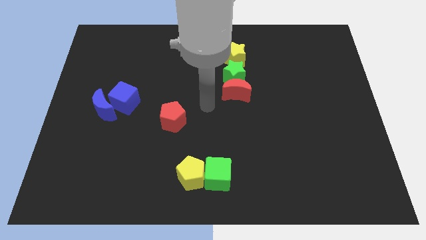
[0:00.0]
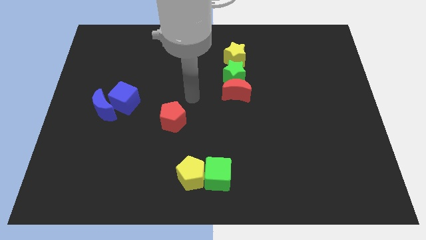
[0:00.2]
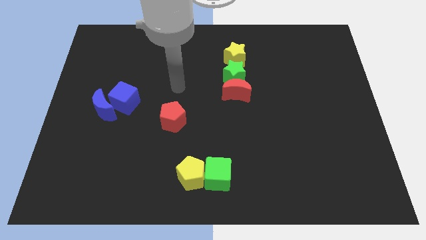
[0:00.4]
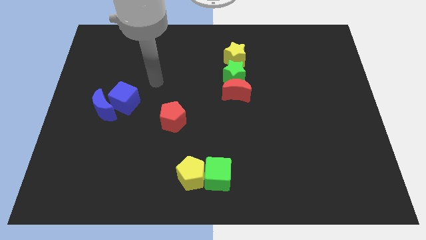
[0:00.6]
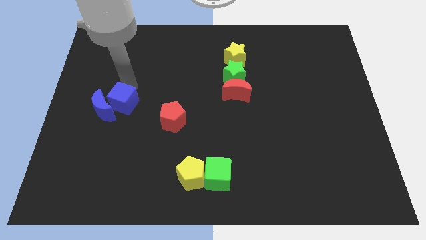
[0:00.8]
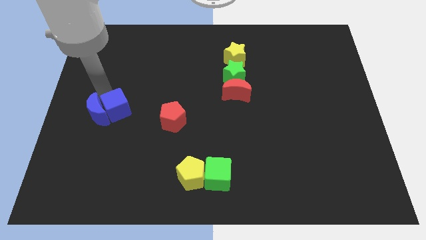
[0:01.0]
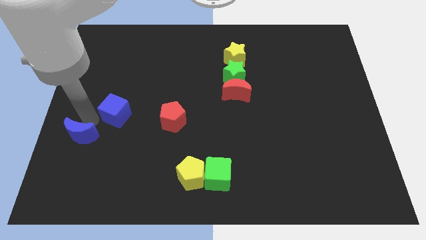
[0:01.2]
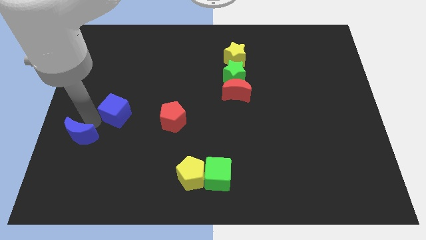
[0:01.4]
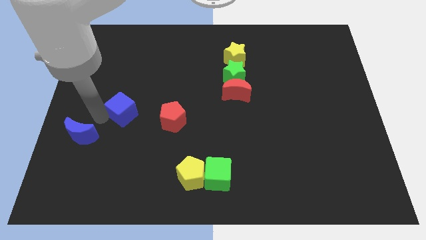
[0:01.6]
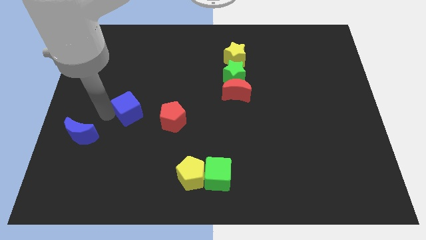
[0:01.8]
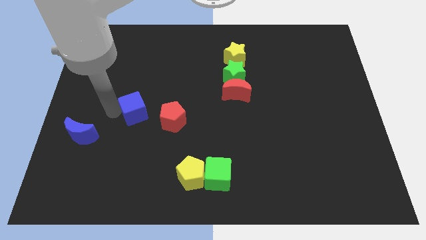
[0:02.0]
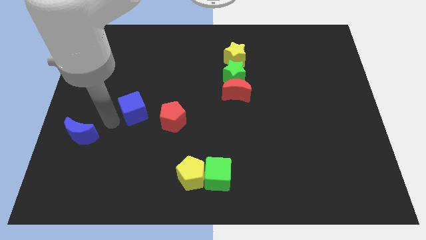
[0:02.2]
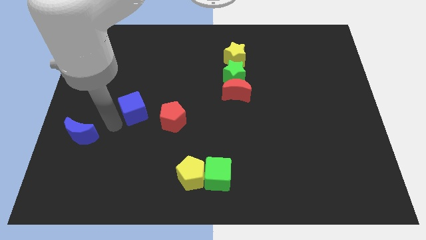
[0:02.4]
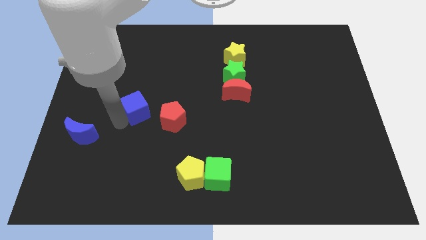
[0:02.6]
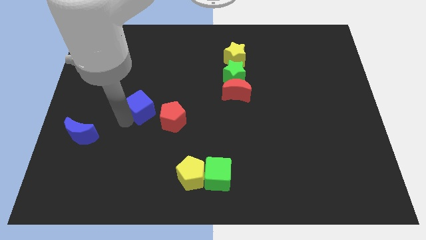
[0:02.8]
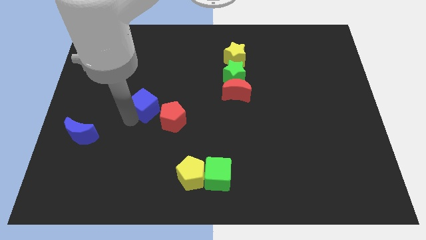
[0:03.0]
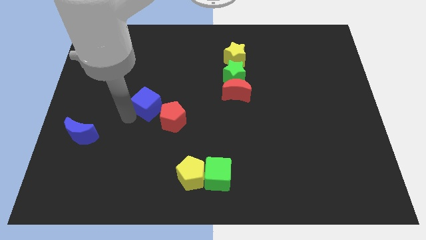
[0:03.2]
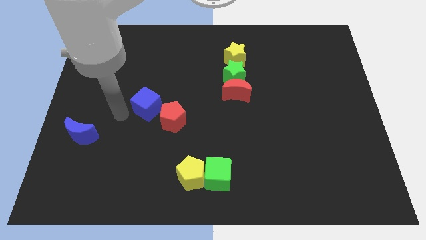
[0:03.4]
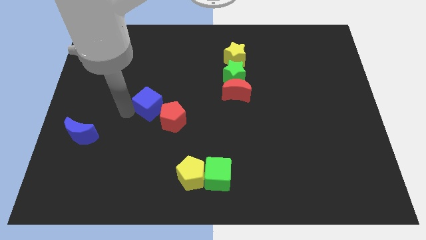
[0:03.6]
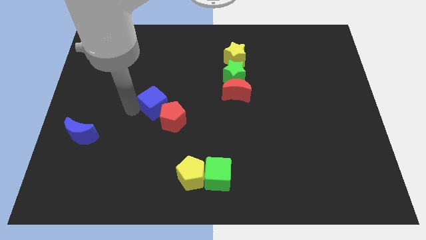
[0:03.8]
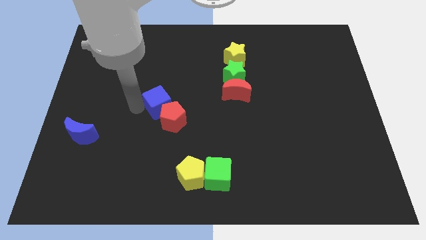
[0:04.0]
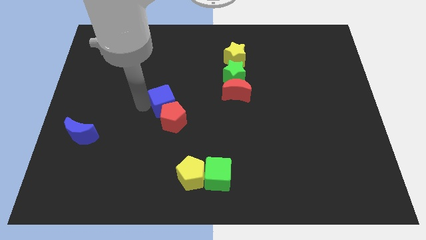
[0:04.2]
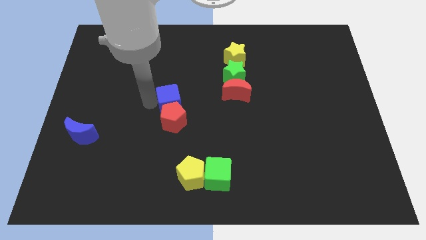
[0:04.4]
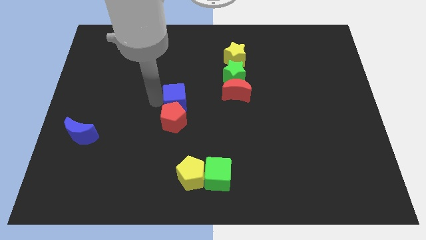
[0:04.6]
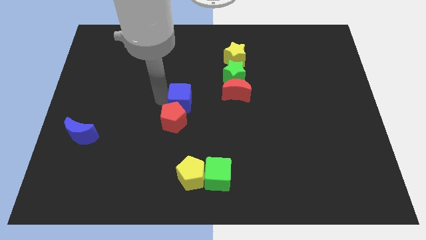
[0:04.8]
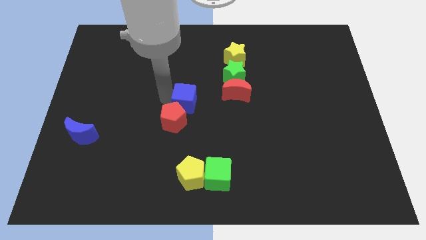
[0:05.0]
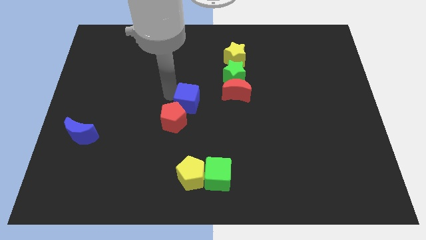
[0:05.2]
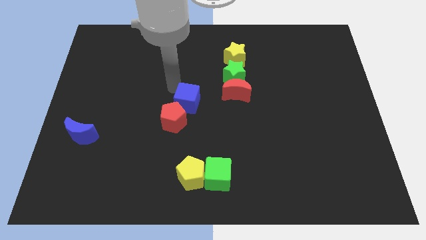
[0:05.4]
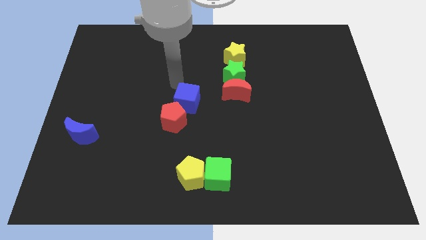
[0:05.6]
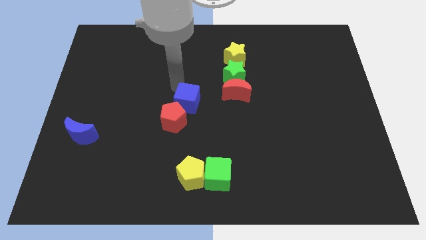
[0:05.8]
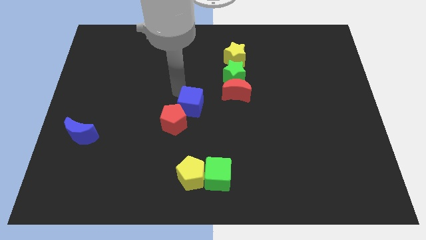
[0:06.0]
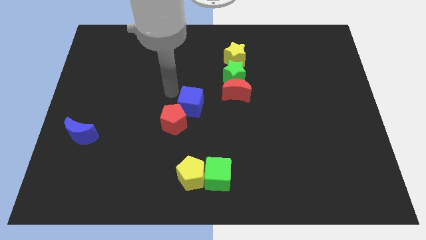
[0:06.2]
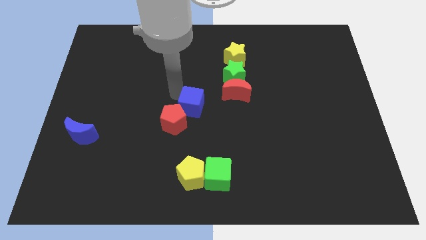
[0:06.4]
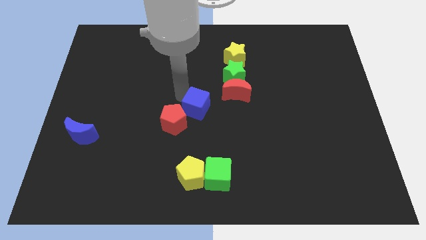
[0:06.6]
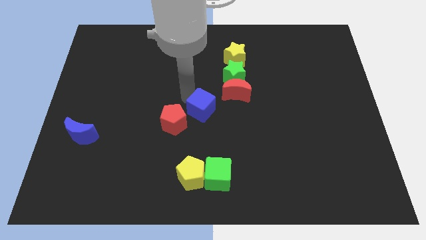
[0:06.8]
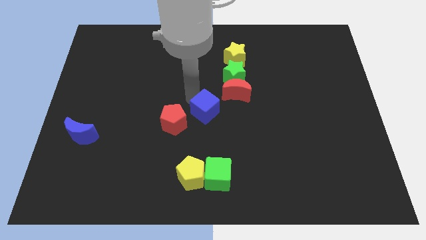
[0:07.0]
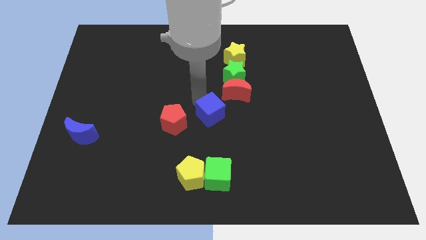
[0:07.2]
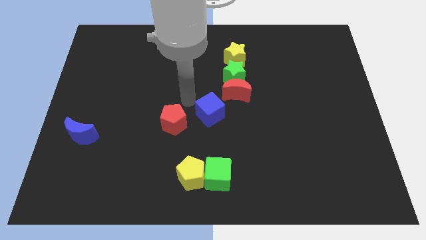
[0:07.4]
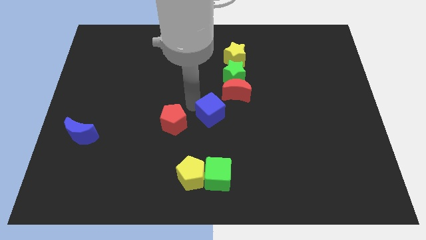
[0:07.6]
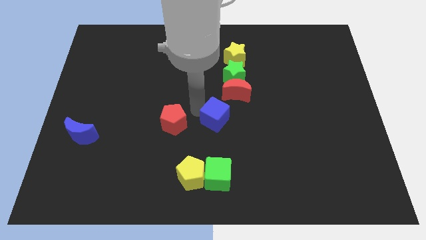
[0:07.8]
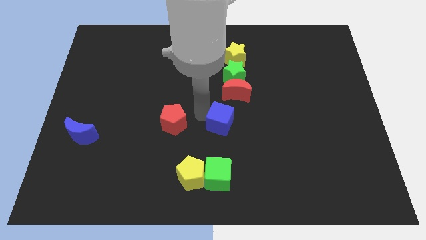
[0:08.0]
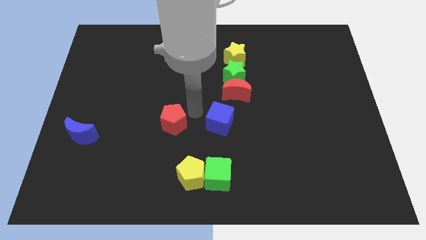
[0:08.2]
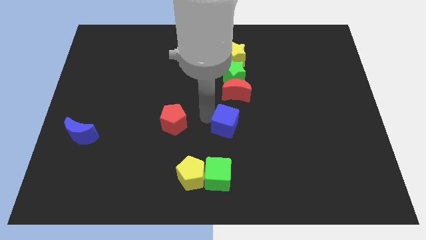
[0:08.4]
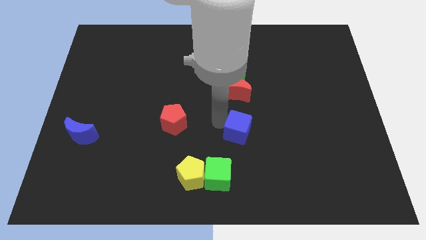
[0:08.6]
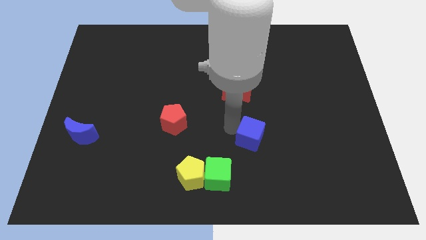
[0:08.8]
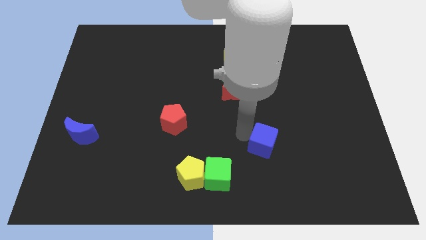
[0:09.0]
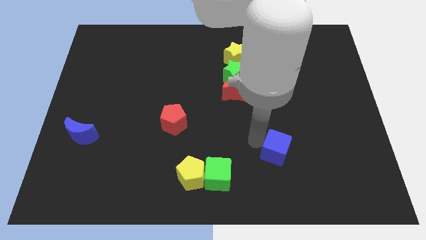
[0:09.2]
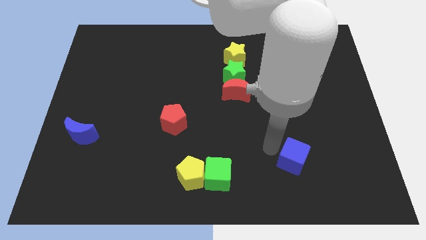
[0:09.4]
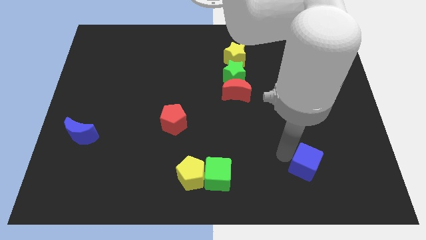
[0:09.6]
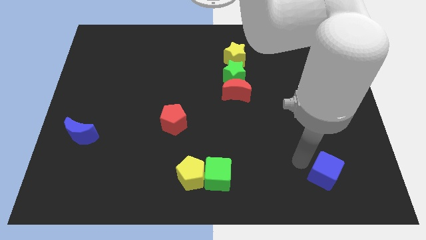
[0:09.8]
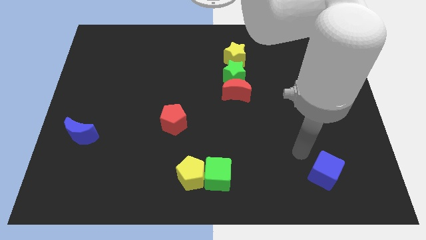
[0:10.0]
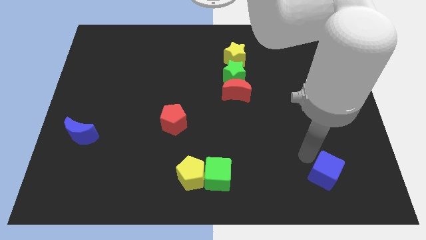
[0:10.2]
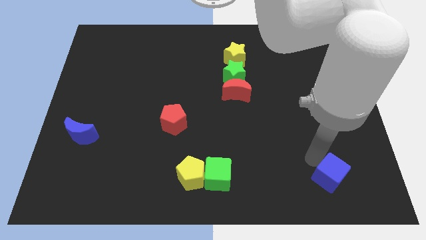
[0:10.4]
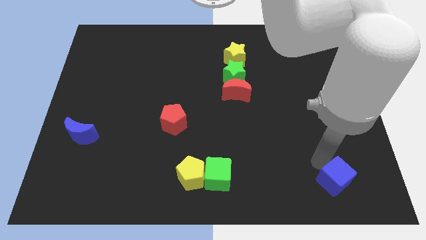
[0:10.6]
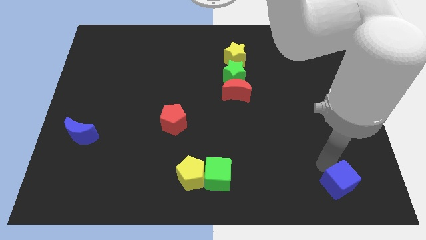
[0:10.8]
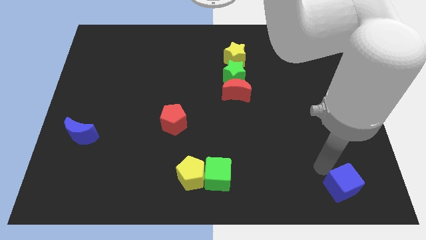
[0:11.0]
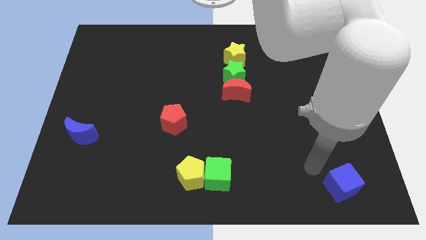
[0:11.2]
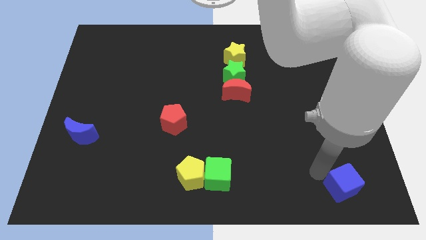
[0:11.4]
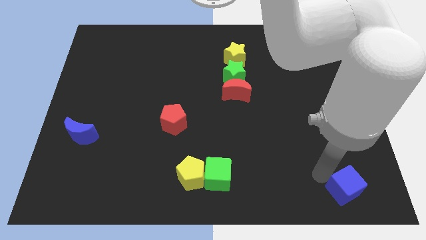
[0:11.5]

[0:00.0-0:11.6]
put the blue cube to the lower right corner
